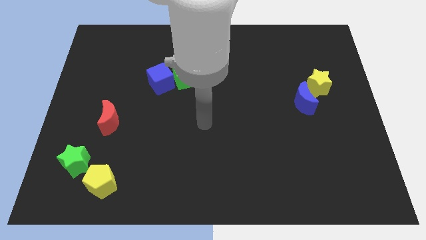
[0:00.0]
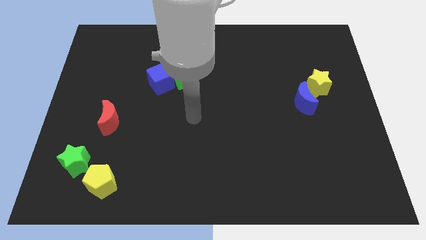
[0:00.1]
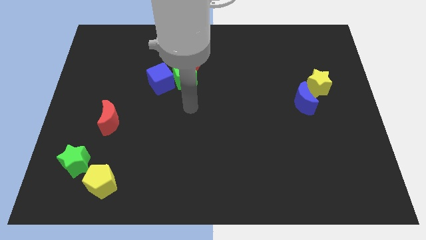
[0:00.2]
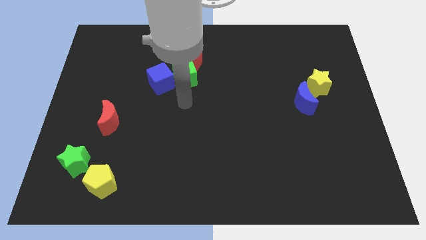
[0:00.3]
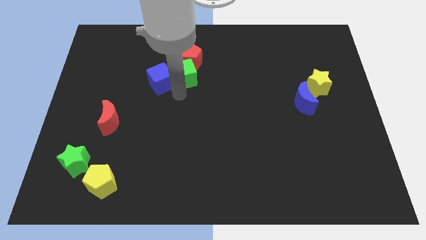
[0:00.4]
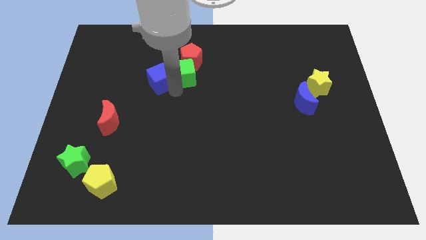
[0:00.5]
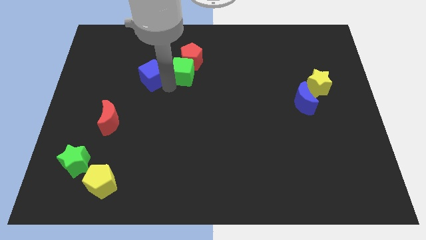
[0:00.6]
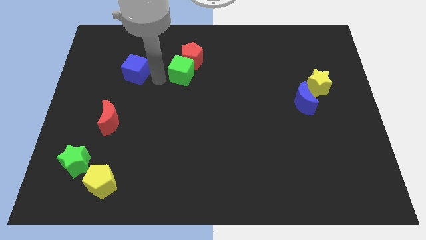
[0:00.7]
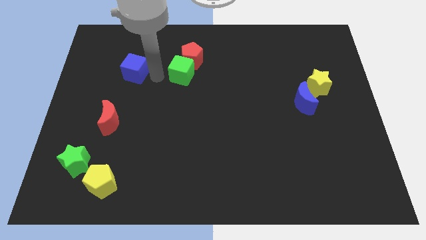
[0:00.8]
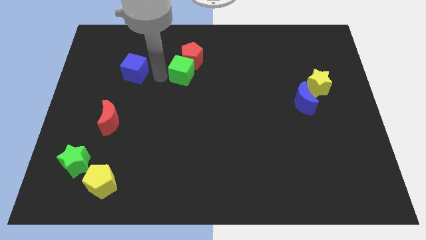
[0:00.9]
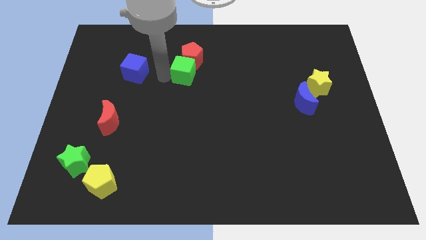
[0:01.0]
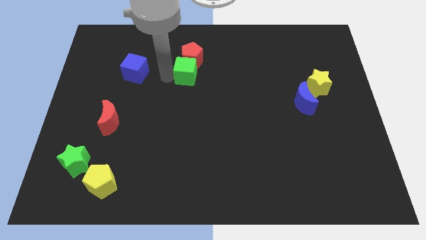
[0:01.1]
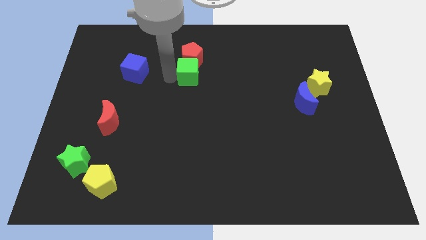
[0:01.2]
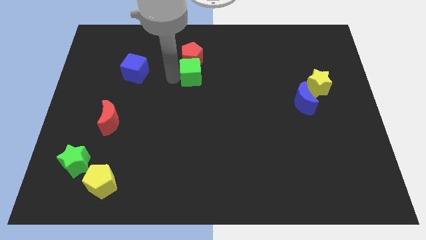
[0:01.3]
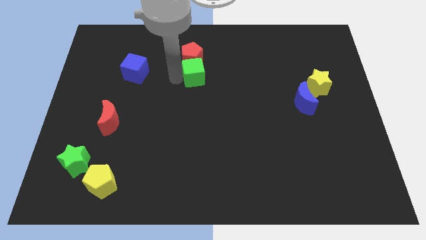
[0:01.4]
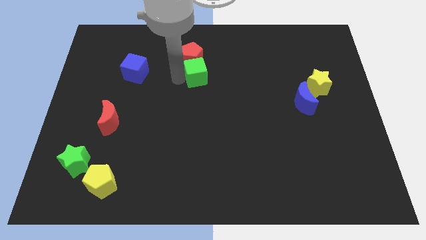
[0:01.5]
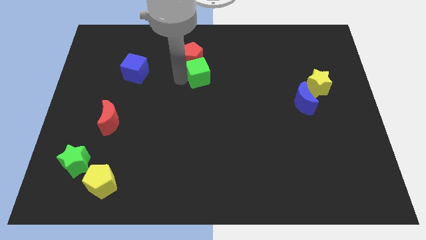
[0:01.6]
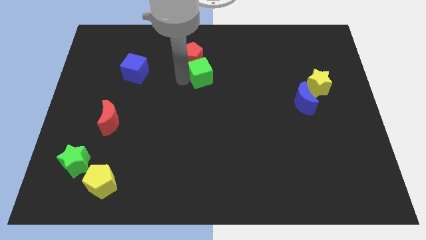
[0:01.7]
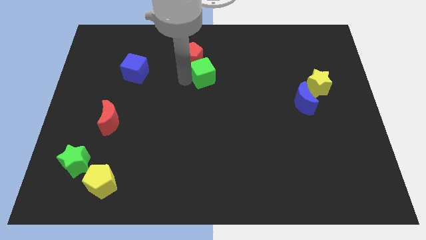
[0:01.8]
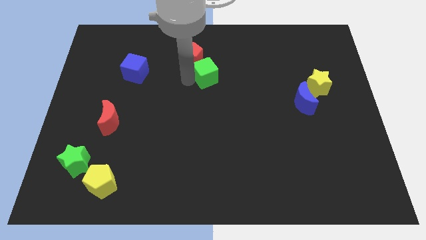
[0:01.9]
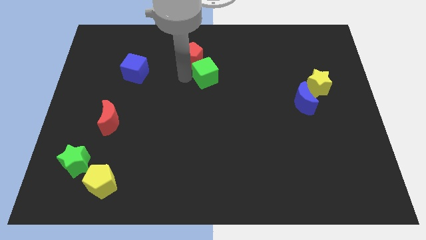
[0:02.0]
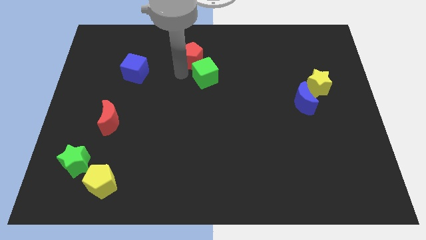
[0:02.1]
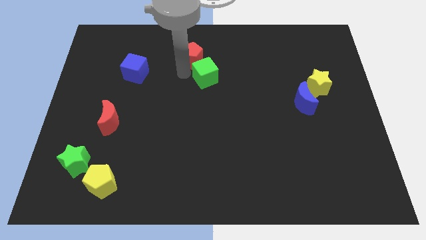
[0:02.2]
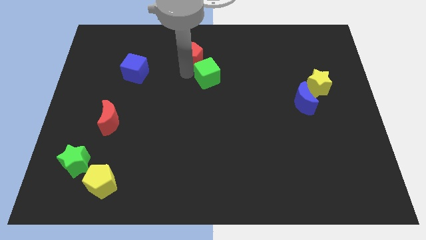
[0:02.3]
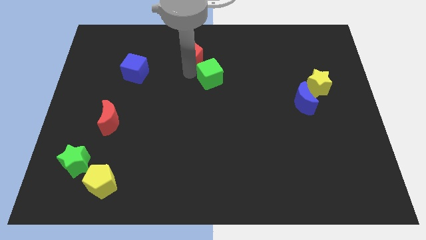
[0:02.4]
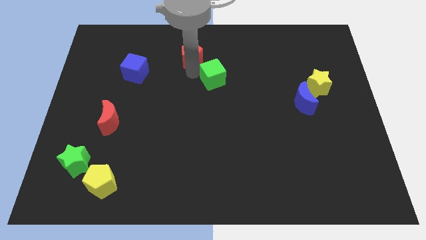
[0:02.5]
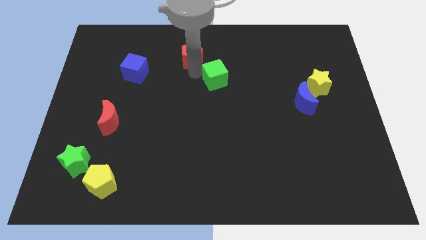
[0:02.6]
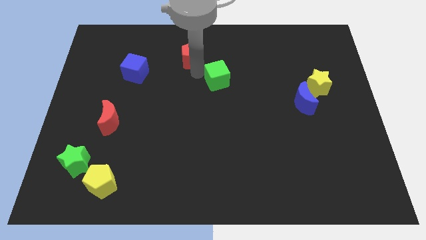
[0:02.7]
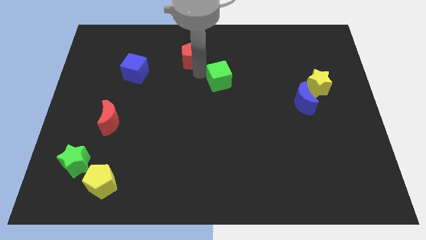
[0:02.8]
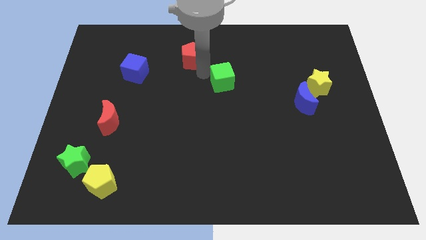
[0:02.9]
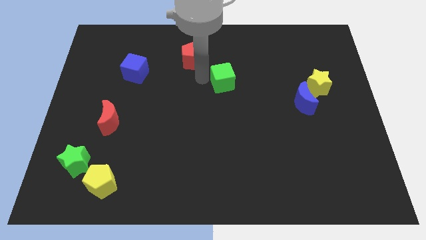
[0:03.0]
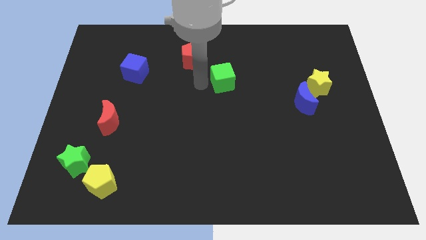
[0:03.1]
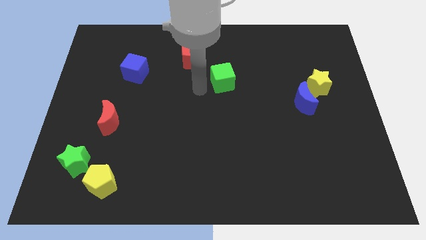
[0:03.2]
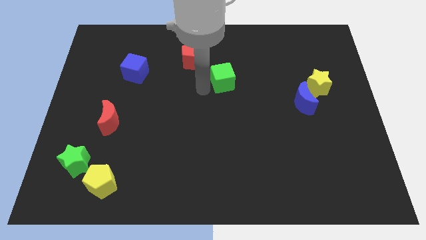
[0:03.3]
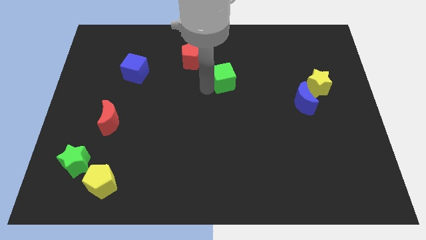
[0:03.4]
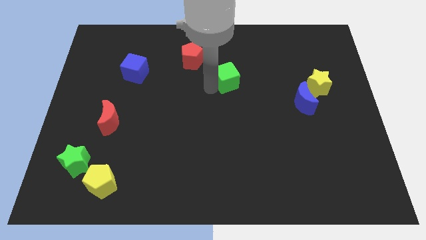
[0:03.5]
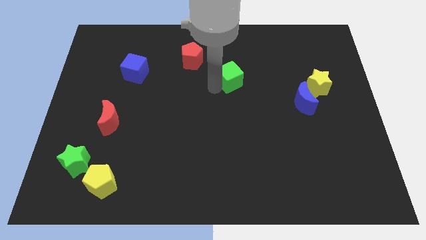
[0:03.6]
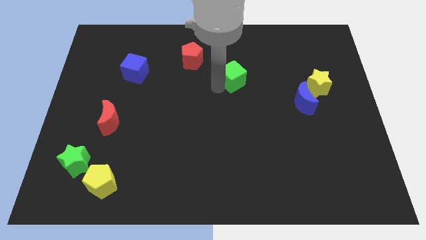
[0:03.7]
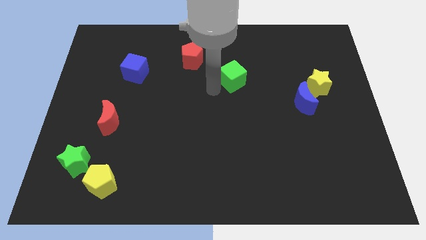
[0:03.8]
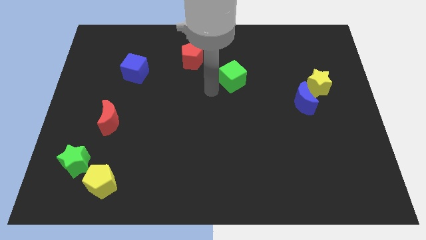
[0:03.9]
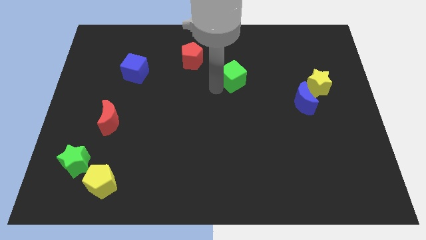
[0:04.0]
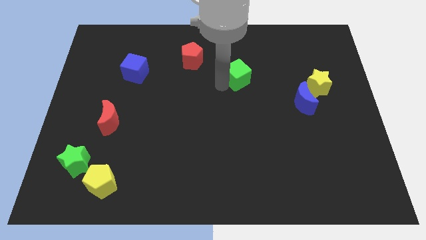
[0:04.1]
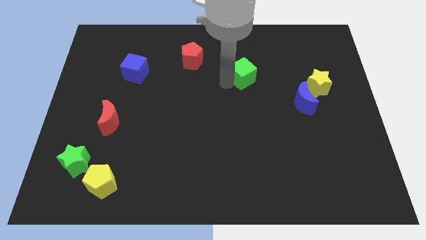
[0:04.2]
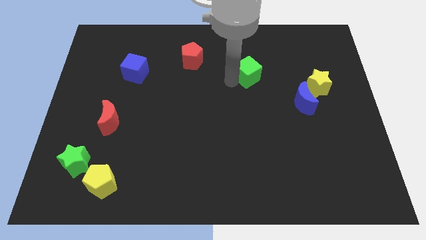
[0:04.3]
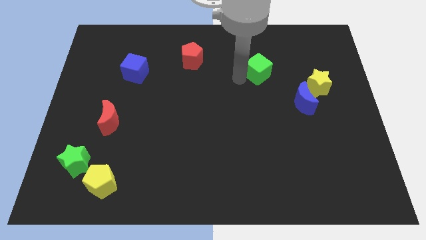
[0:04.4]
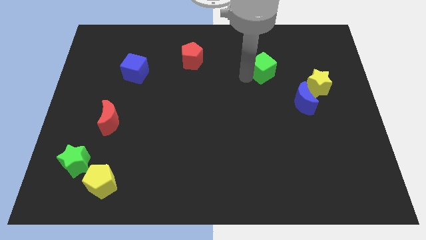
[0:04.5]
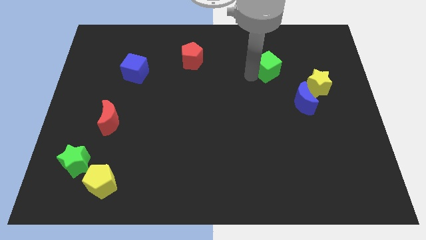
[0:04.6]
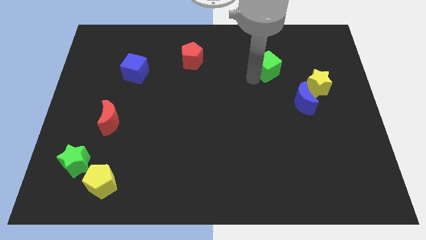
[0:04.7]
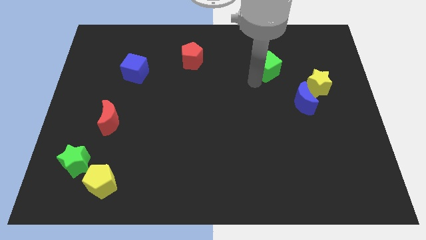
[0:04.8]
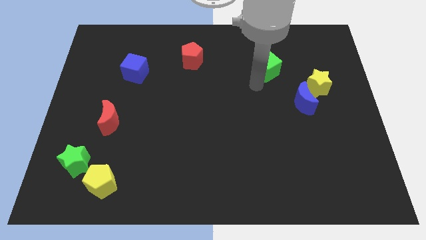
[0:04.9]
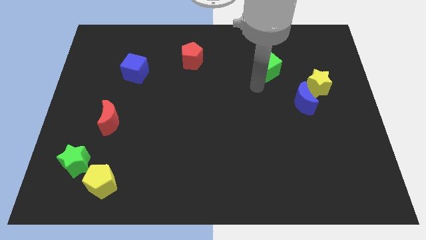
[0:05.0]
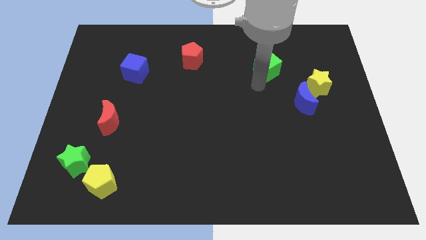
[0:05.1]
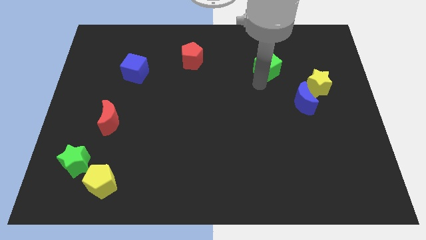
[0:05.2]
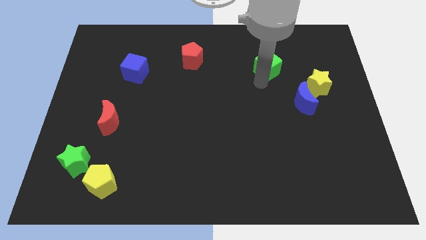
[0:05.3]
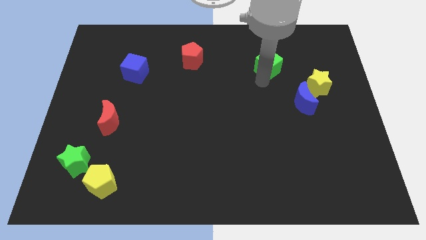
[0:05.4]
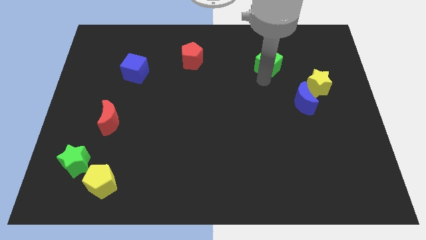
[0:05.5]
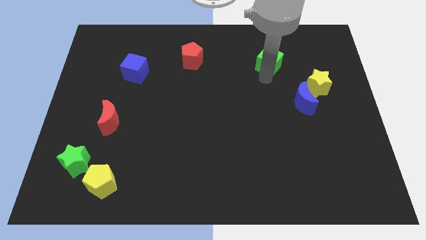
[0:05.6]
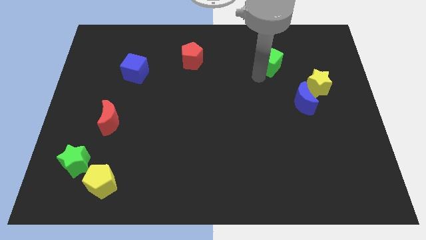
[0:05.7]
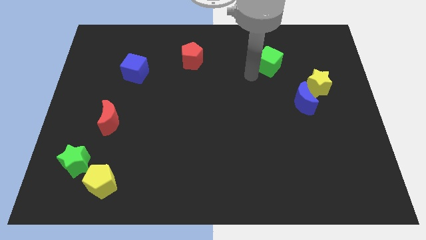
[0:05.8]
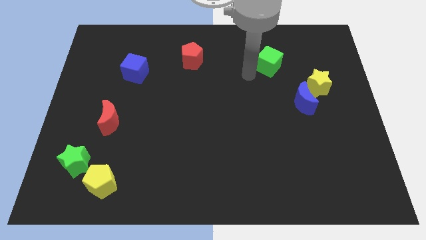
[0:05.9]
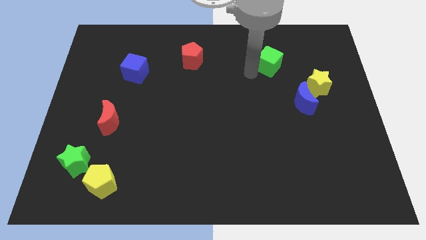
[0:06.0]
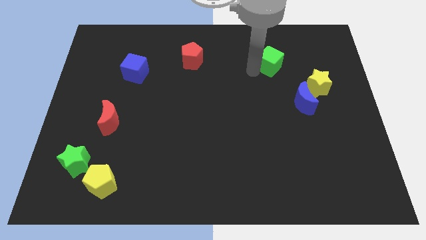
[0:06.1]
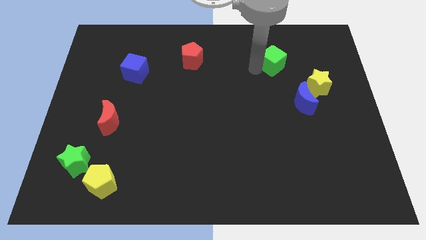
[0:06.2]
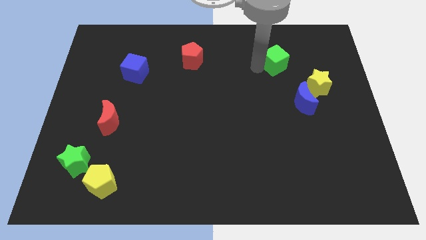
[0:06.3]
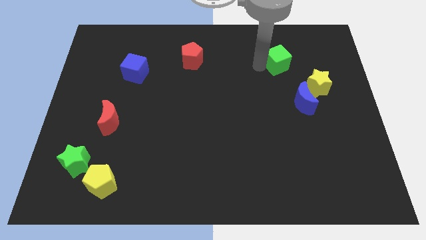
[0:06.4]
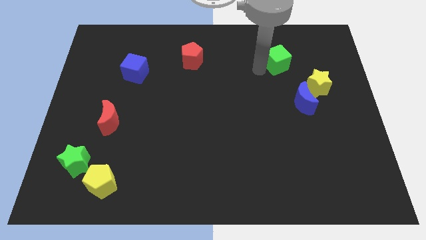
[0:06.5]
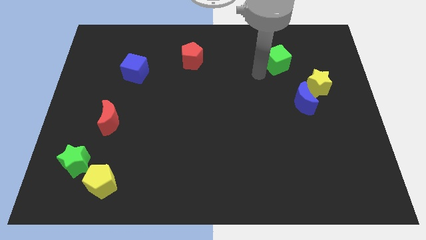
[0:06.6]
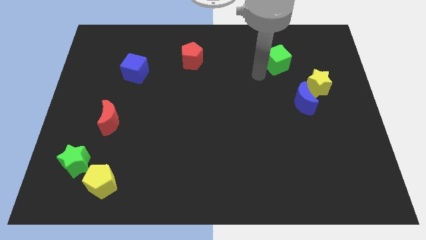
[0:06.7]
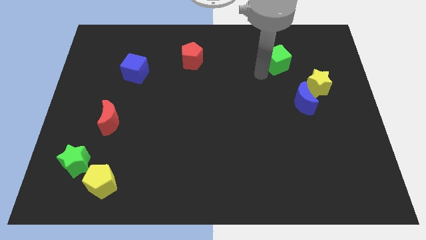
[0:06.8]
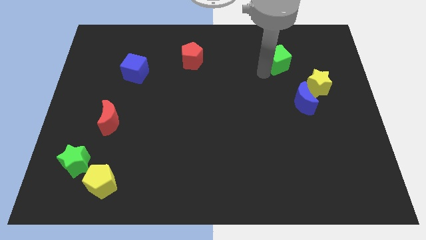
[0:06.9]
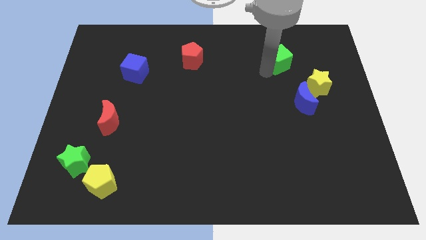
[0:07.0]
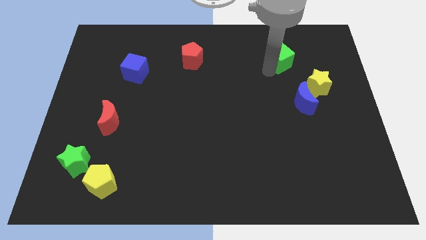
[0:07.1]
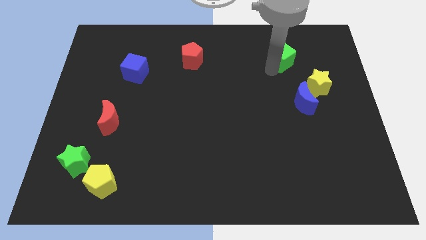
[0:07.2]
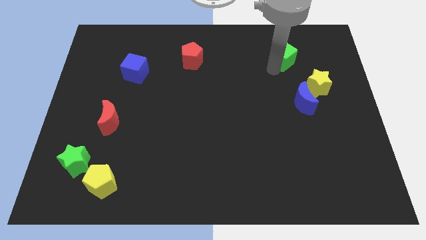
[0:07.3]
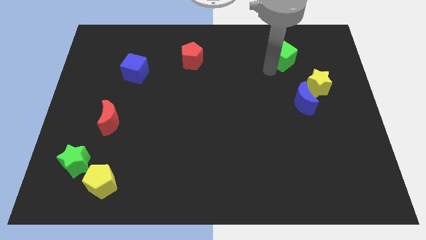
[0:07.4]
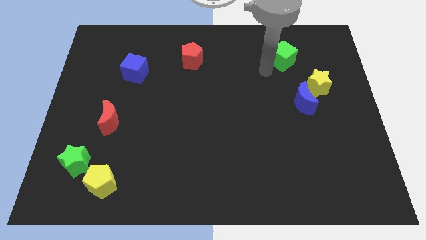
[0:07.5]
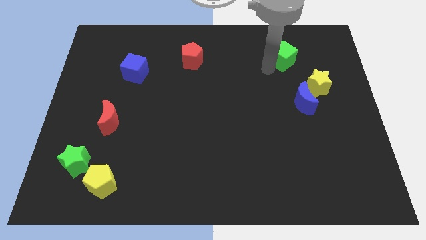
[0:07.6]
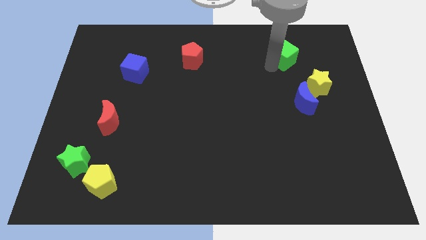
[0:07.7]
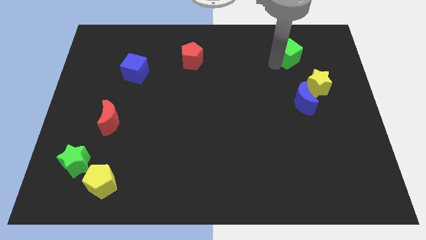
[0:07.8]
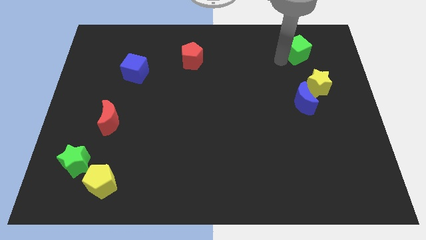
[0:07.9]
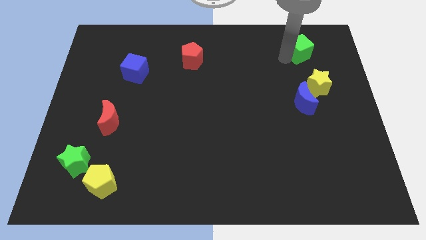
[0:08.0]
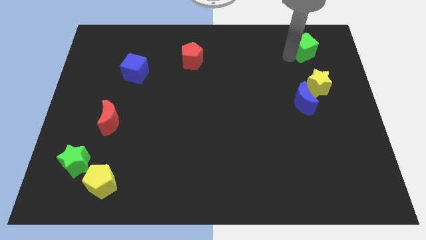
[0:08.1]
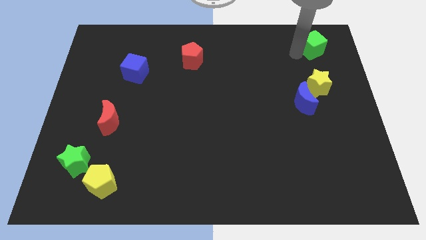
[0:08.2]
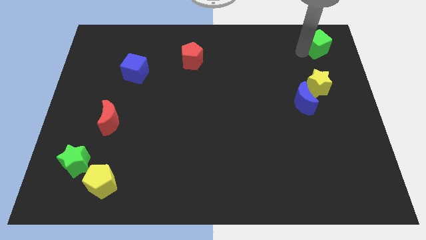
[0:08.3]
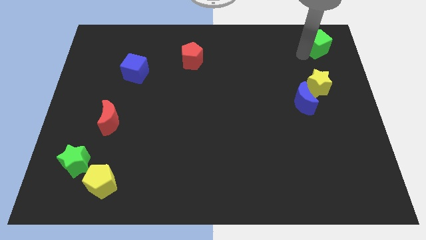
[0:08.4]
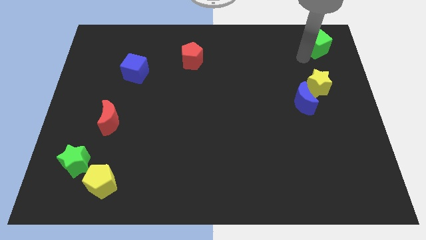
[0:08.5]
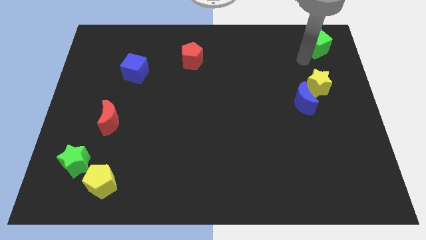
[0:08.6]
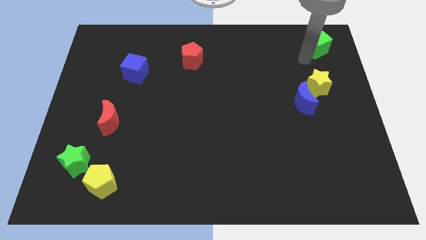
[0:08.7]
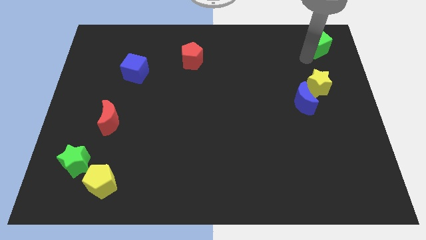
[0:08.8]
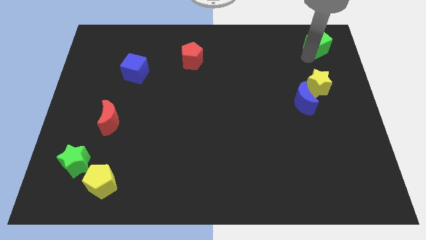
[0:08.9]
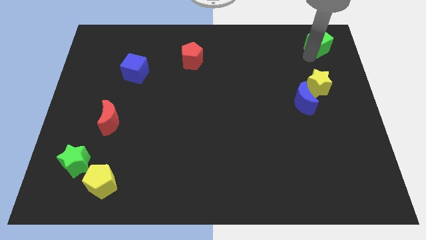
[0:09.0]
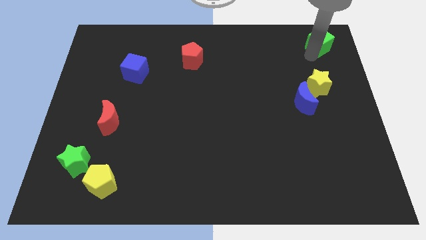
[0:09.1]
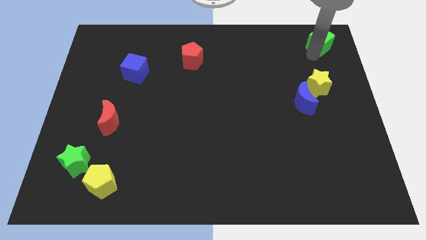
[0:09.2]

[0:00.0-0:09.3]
slide the green cube to the top right of the board
